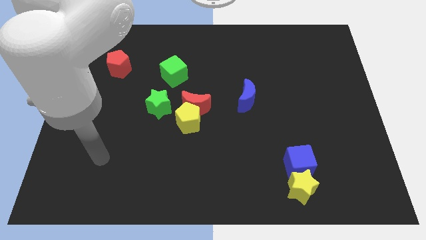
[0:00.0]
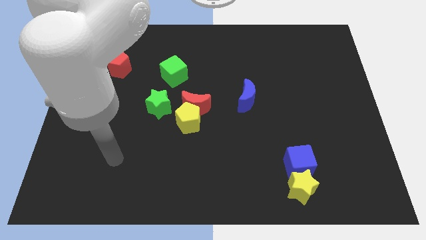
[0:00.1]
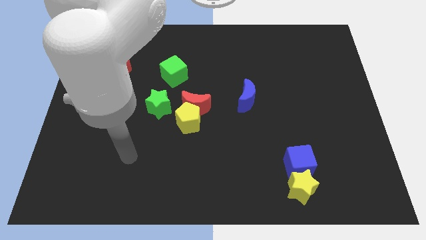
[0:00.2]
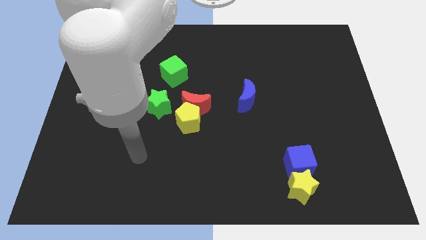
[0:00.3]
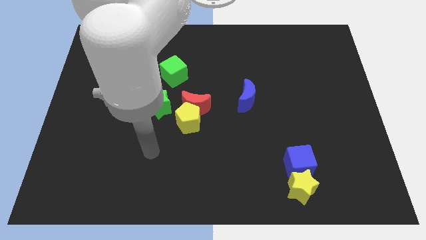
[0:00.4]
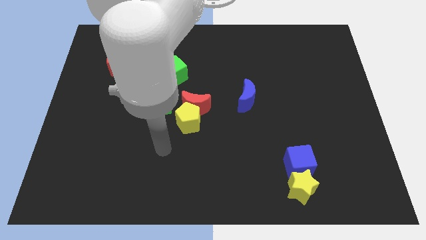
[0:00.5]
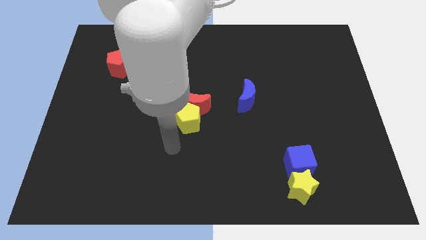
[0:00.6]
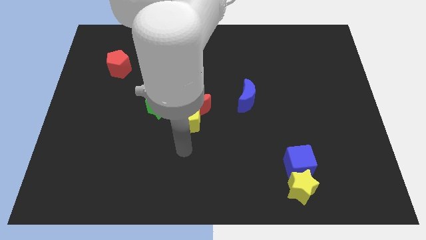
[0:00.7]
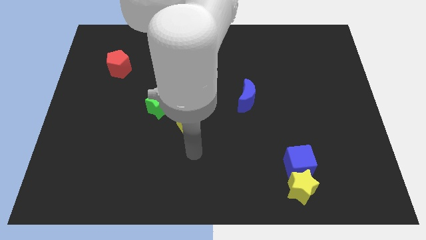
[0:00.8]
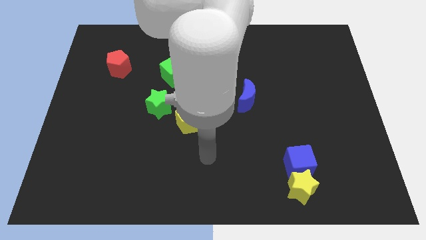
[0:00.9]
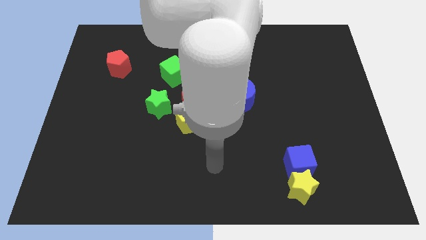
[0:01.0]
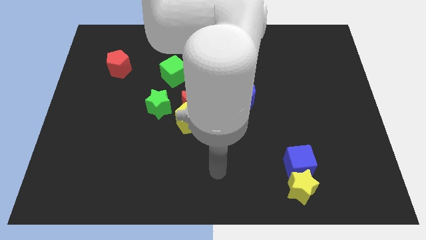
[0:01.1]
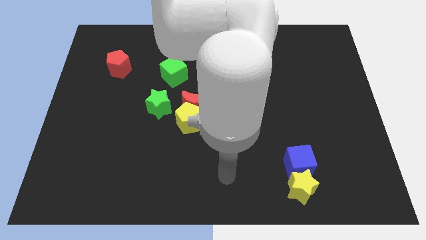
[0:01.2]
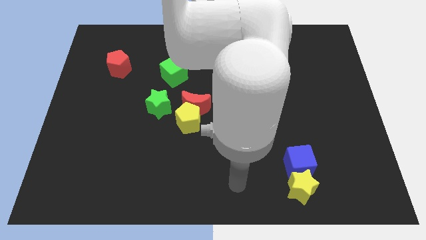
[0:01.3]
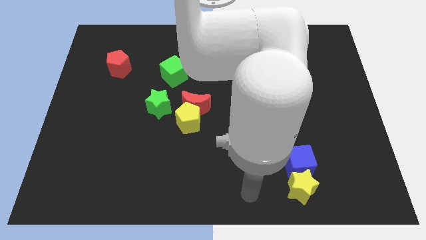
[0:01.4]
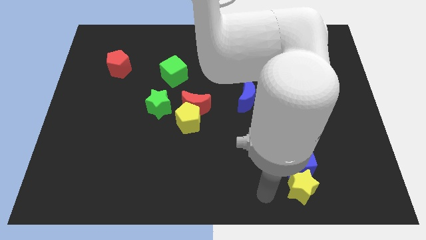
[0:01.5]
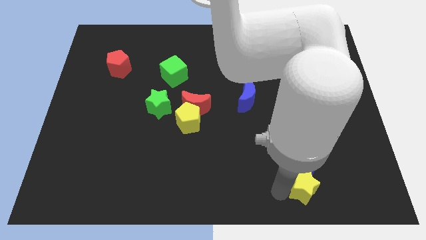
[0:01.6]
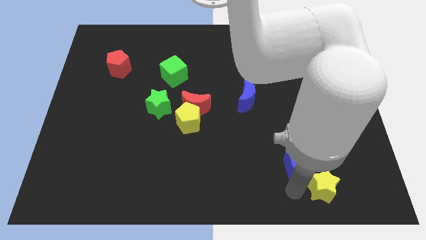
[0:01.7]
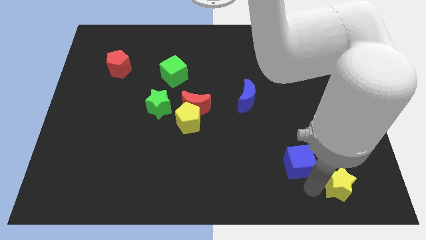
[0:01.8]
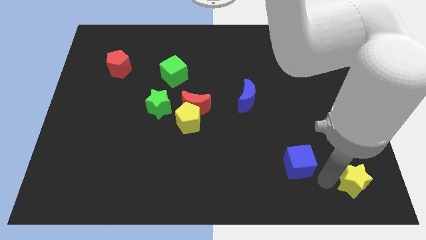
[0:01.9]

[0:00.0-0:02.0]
move the blue cube away from the yellow star

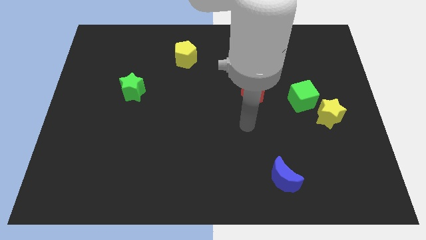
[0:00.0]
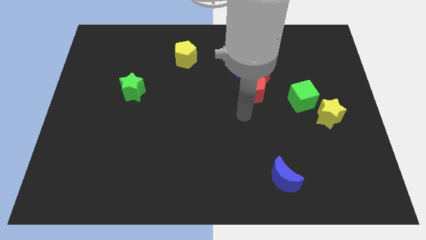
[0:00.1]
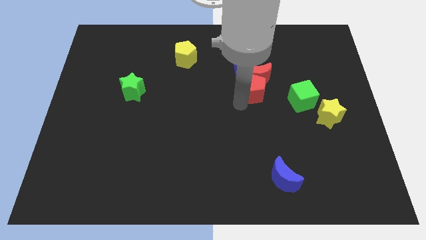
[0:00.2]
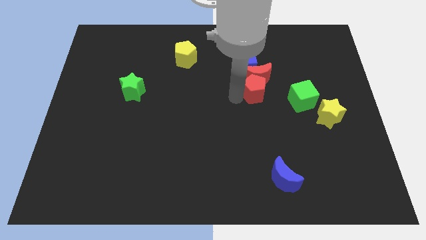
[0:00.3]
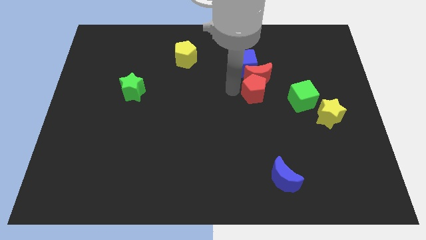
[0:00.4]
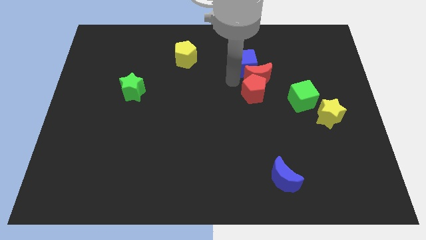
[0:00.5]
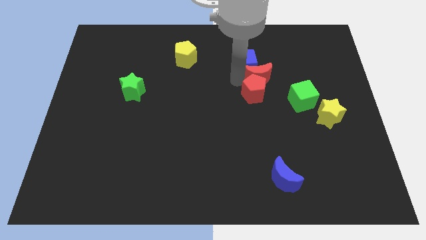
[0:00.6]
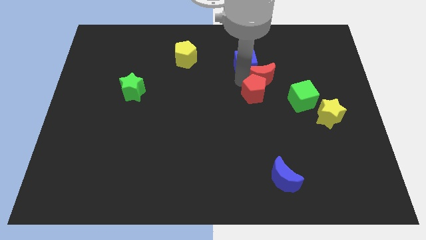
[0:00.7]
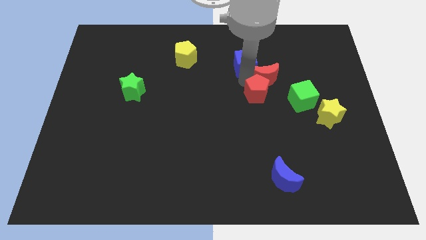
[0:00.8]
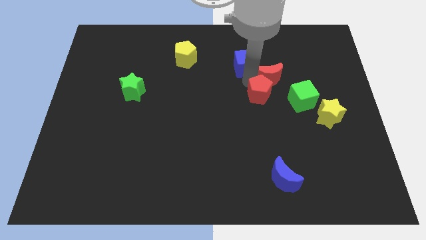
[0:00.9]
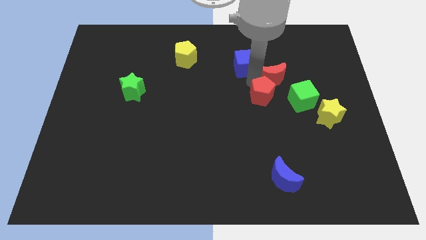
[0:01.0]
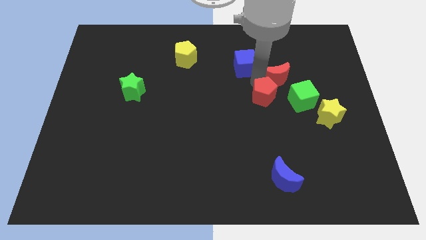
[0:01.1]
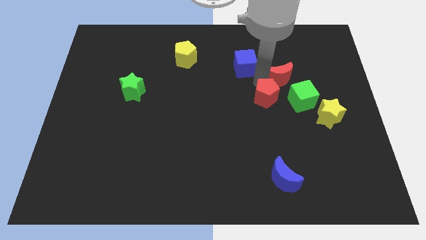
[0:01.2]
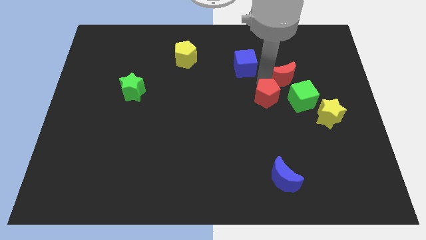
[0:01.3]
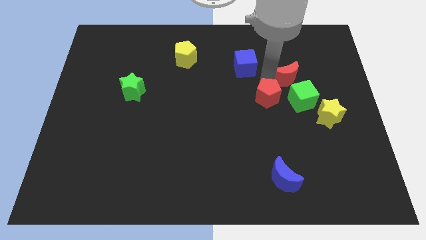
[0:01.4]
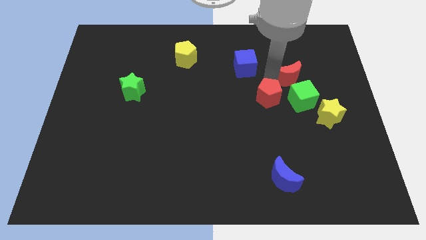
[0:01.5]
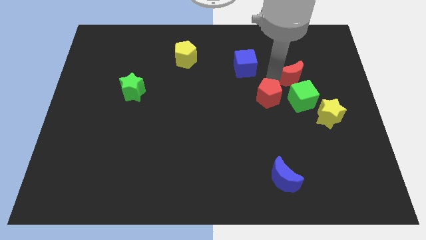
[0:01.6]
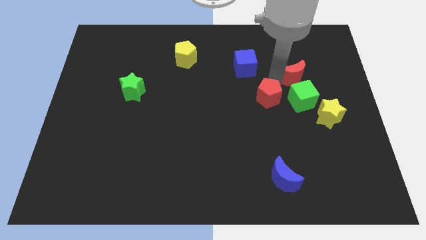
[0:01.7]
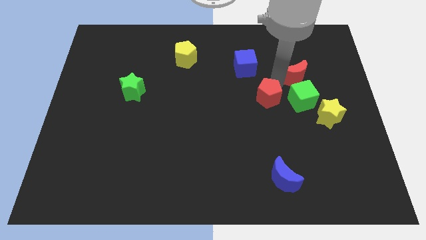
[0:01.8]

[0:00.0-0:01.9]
move the red moon away from the red pentagon and blue cube

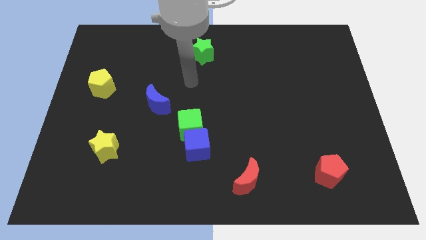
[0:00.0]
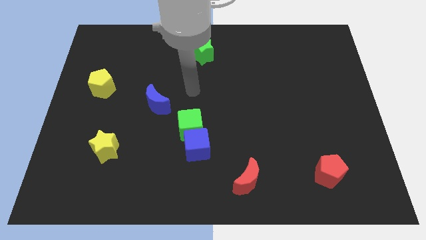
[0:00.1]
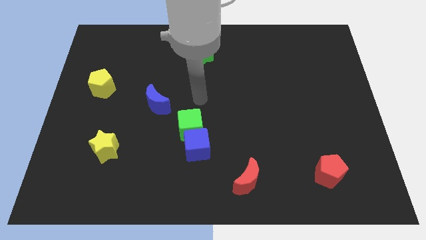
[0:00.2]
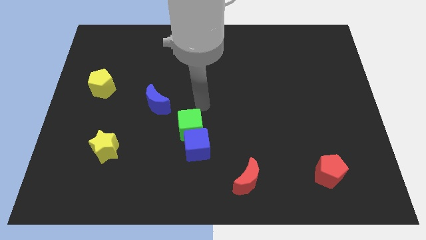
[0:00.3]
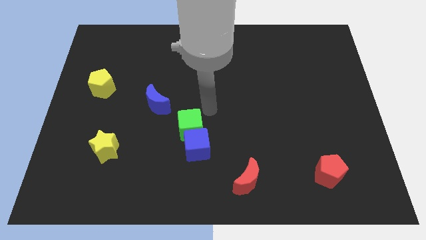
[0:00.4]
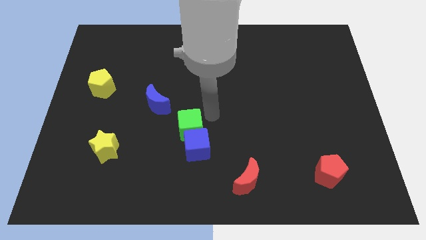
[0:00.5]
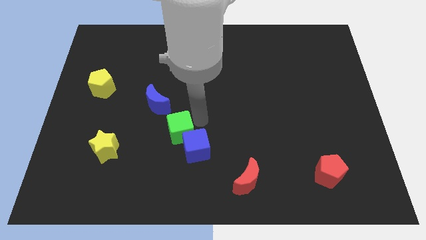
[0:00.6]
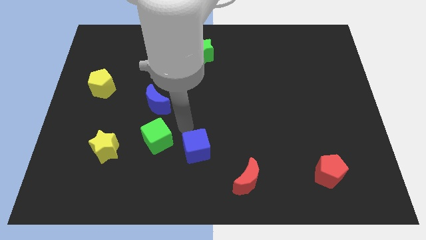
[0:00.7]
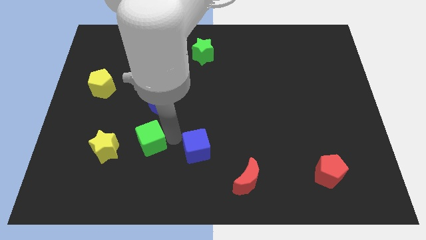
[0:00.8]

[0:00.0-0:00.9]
move the blue cube away from the green cube

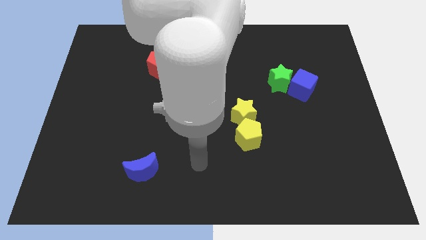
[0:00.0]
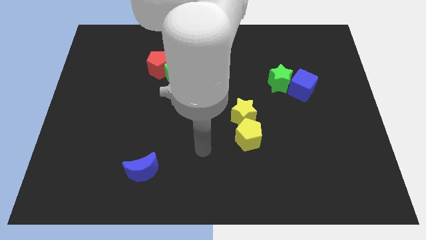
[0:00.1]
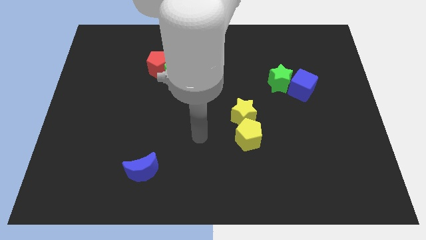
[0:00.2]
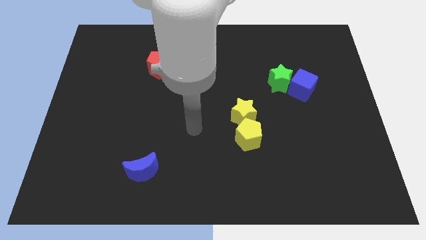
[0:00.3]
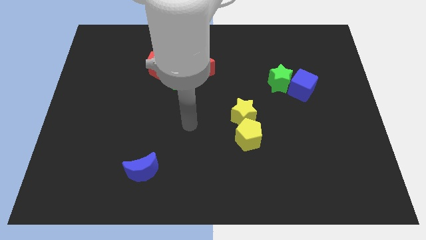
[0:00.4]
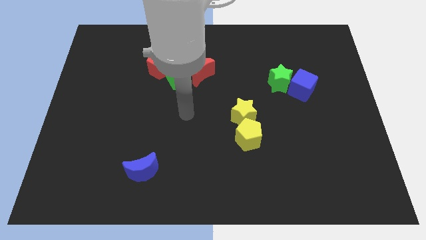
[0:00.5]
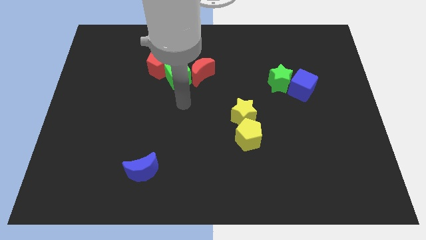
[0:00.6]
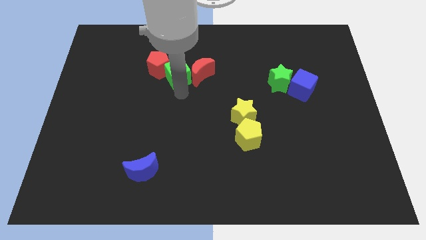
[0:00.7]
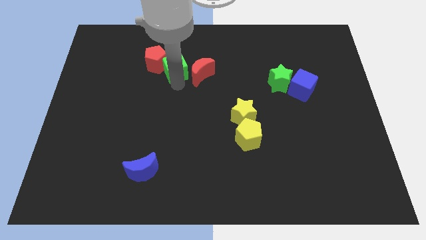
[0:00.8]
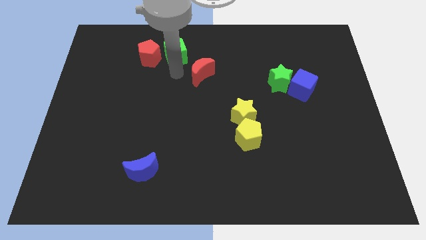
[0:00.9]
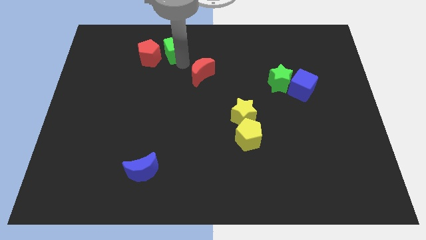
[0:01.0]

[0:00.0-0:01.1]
pull the red moon apart from the green cube

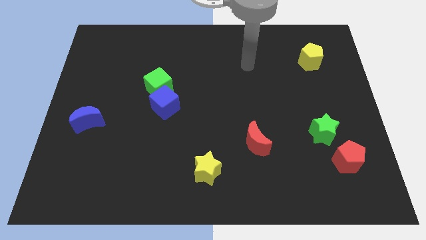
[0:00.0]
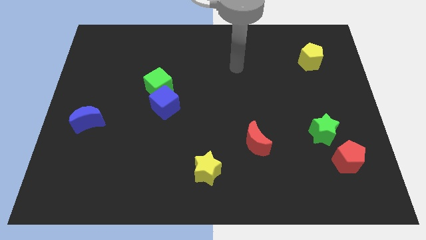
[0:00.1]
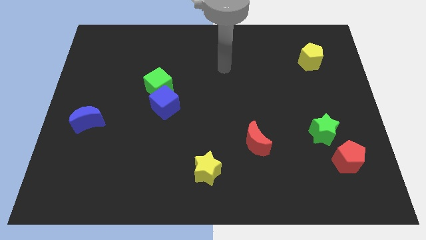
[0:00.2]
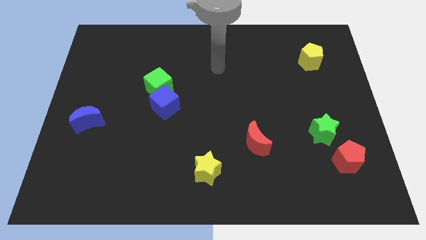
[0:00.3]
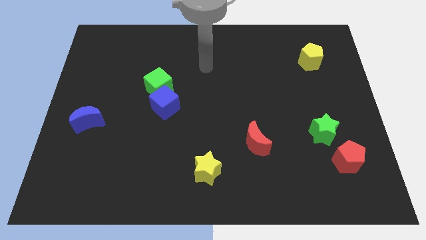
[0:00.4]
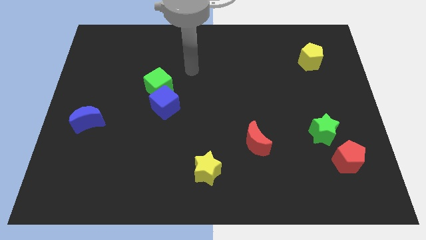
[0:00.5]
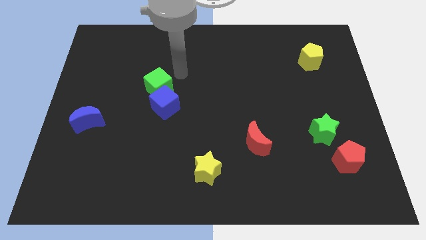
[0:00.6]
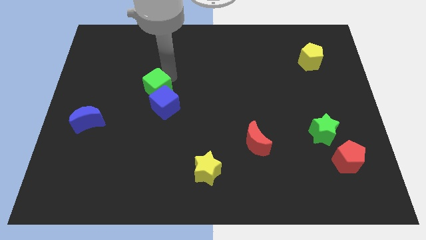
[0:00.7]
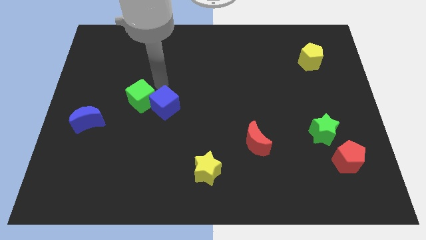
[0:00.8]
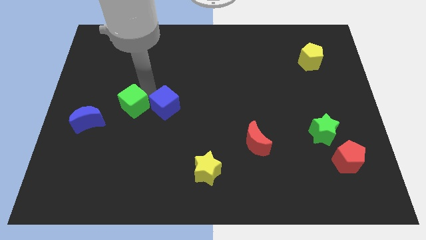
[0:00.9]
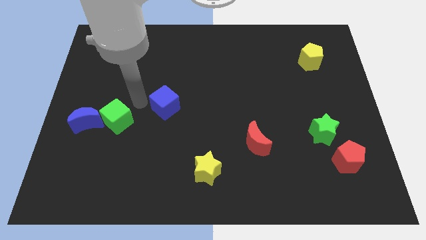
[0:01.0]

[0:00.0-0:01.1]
pull the blue cube apart from the green cube

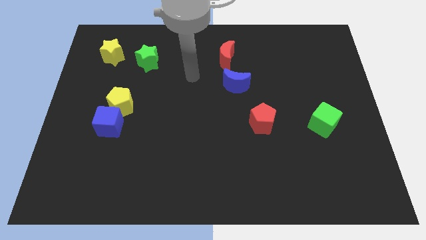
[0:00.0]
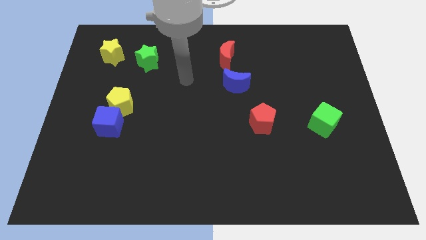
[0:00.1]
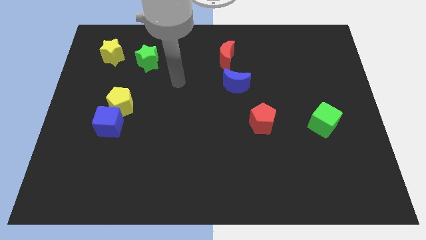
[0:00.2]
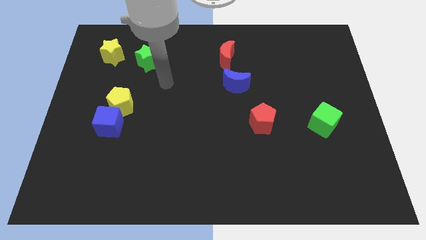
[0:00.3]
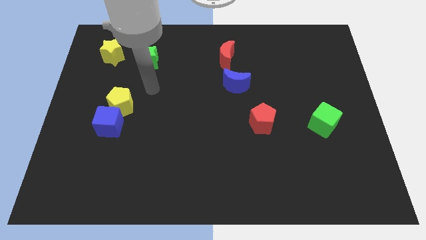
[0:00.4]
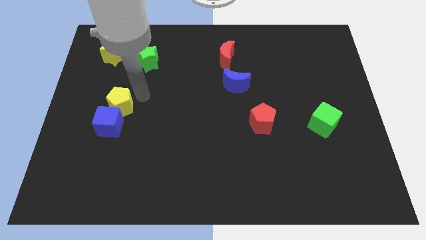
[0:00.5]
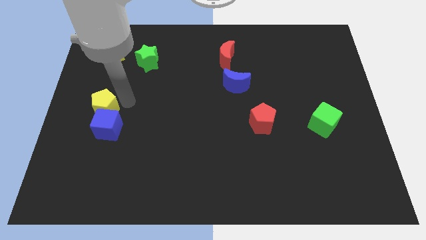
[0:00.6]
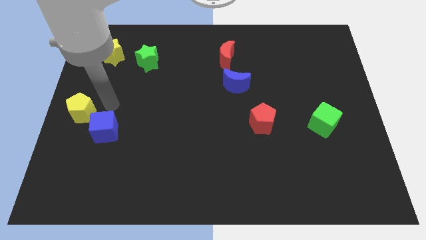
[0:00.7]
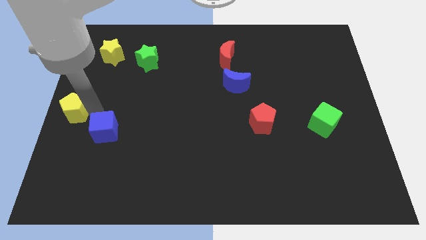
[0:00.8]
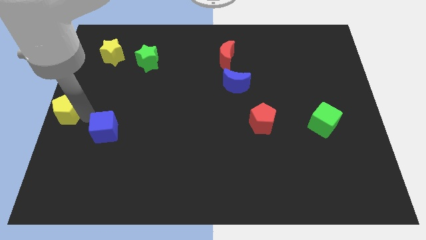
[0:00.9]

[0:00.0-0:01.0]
pull the blue cube apart from the yellow pentagon

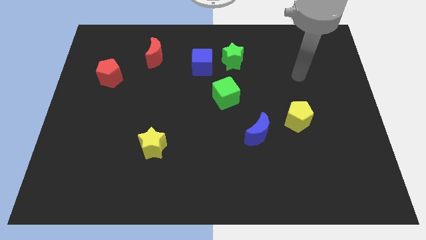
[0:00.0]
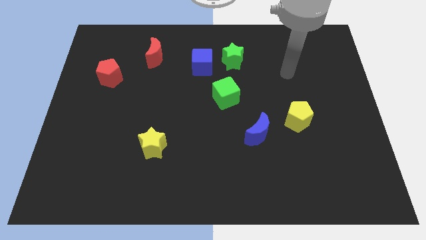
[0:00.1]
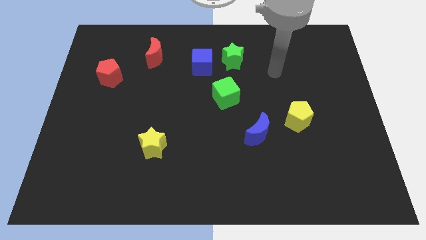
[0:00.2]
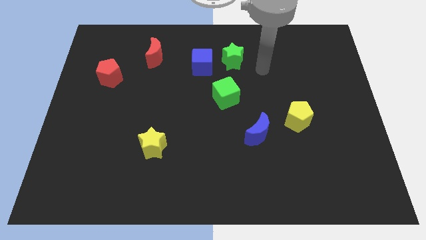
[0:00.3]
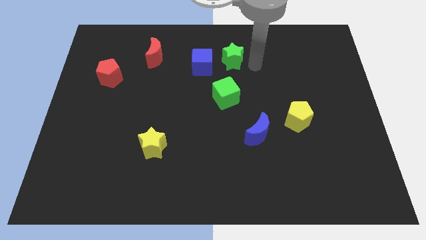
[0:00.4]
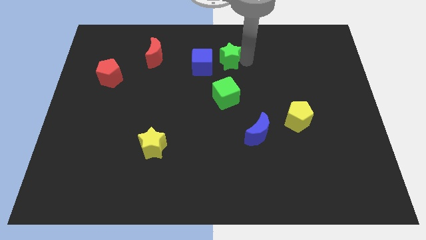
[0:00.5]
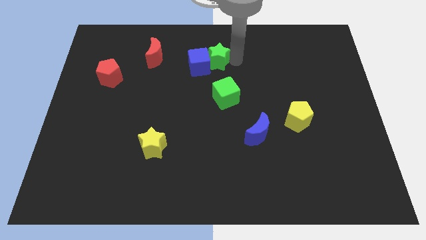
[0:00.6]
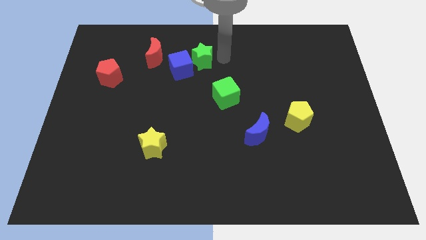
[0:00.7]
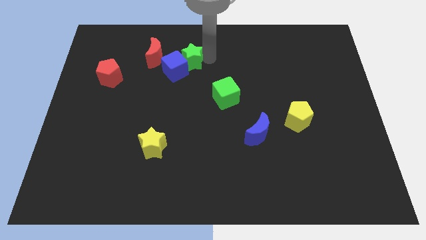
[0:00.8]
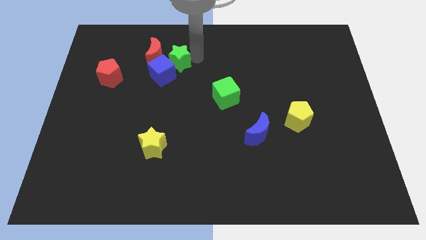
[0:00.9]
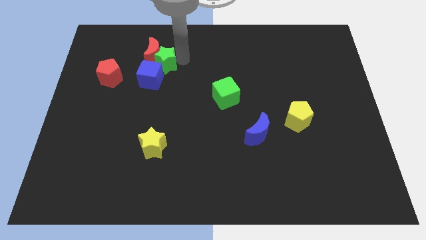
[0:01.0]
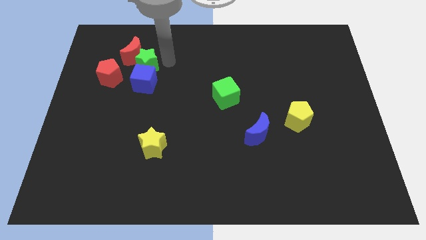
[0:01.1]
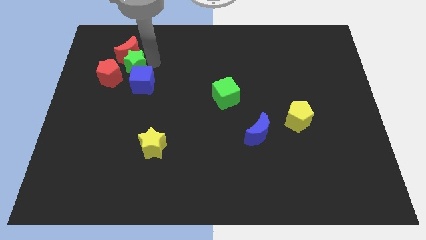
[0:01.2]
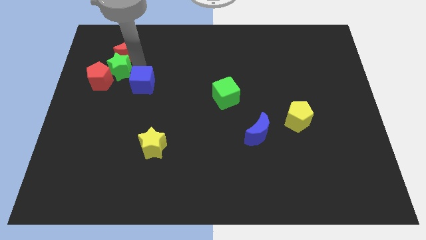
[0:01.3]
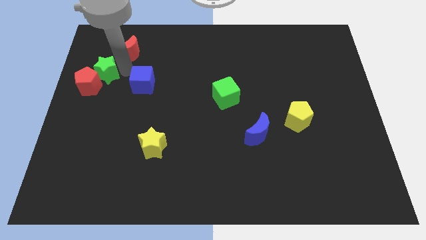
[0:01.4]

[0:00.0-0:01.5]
pull the blue cube apart from the green star
